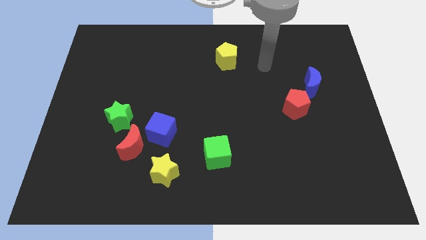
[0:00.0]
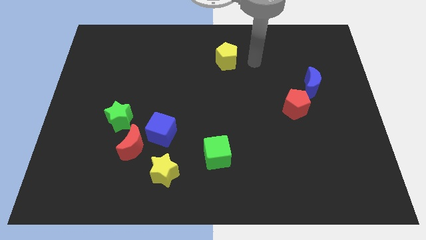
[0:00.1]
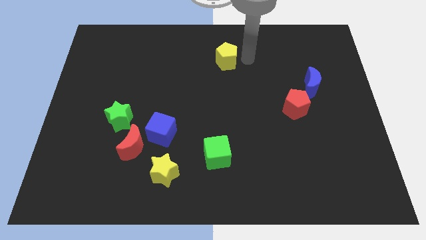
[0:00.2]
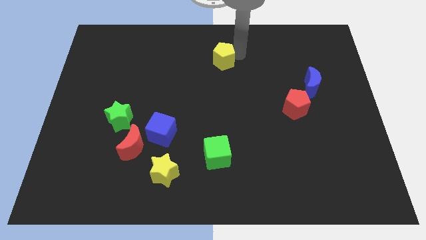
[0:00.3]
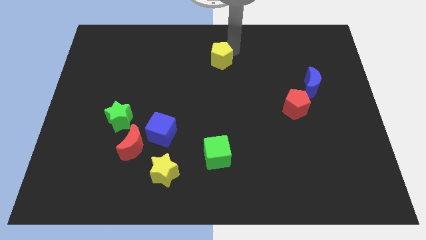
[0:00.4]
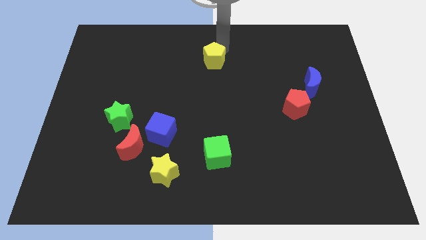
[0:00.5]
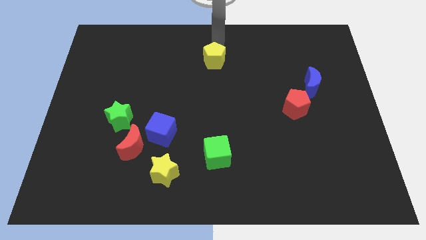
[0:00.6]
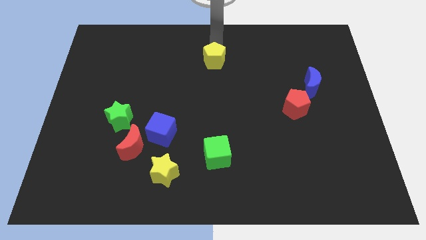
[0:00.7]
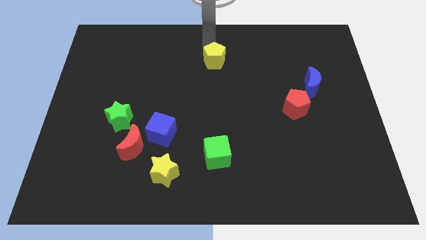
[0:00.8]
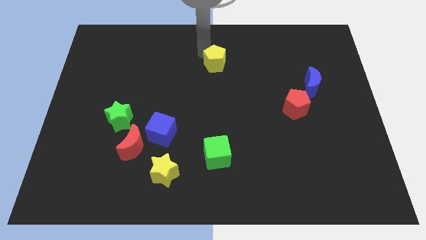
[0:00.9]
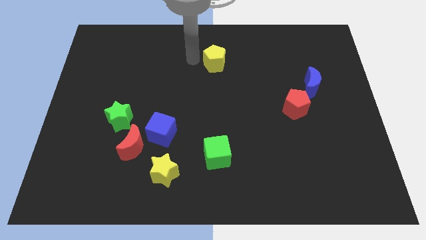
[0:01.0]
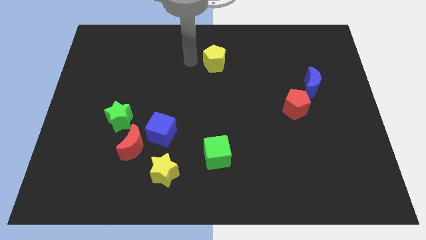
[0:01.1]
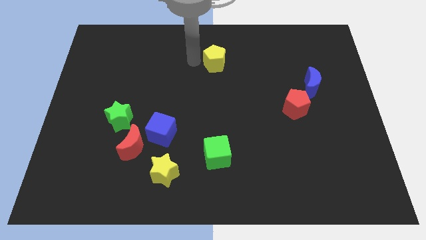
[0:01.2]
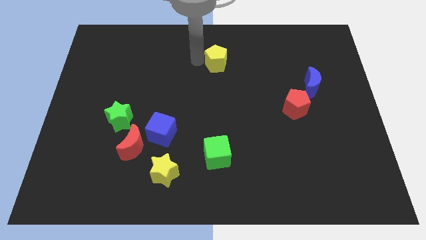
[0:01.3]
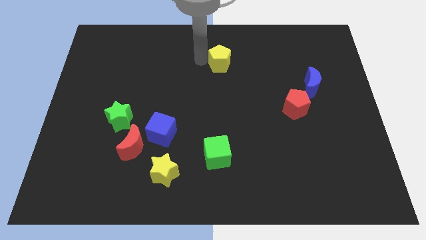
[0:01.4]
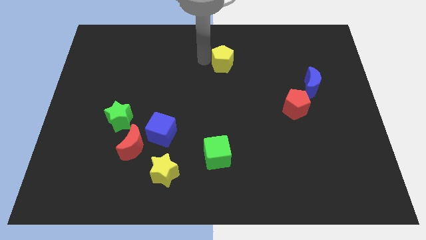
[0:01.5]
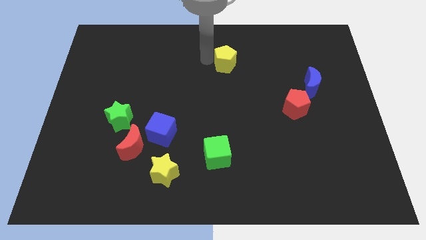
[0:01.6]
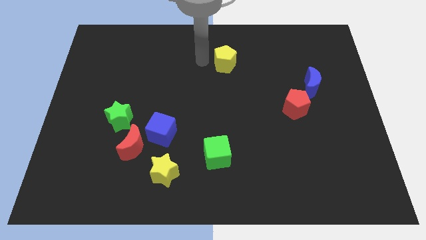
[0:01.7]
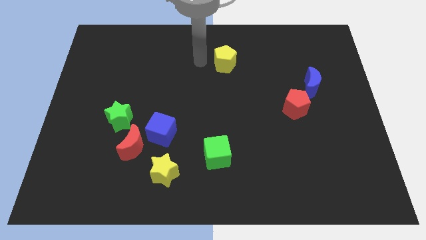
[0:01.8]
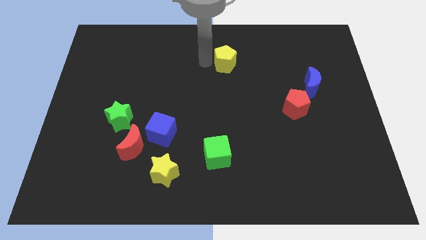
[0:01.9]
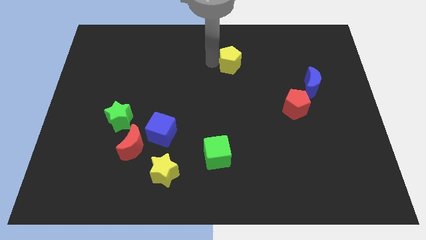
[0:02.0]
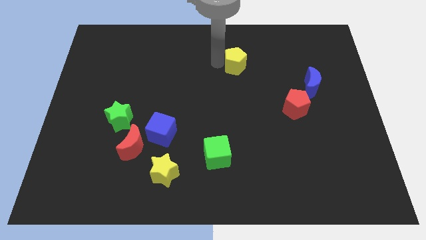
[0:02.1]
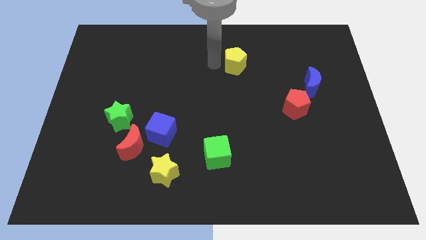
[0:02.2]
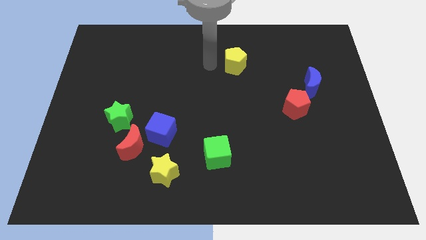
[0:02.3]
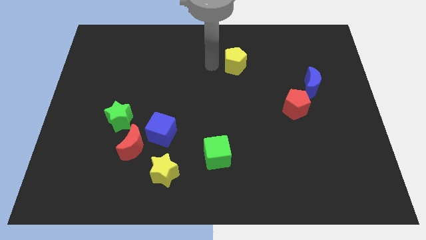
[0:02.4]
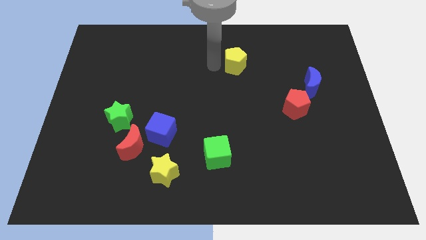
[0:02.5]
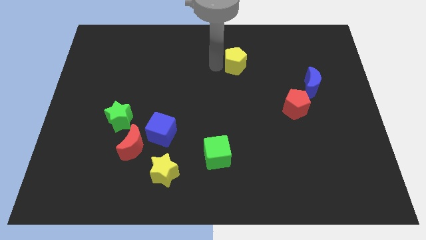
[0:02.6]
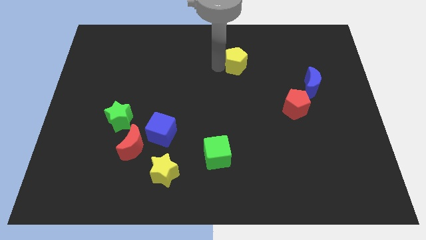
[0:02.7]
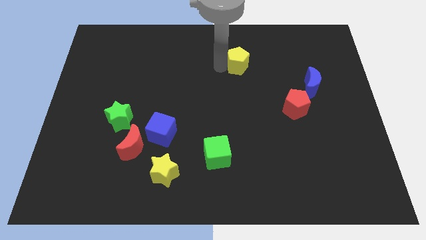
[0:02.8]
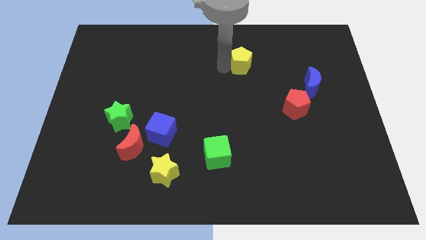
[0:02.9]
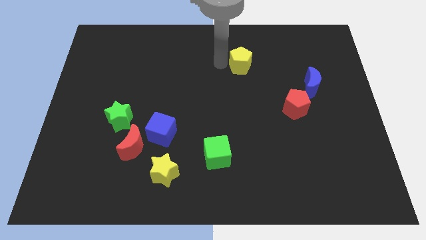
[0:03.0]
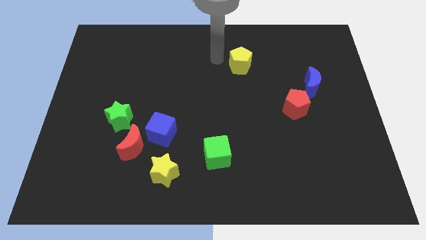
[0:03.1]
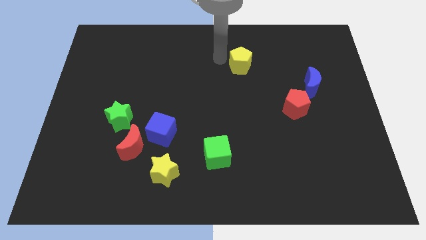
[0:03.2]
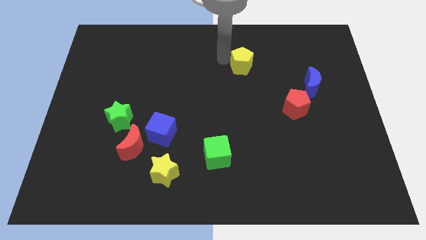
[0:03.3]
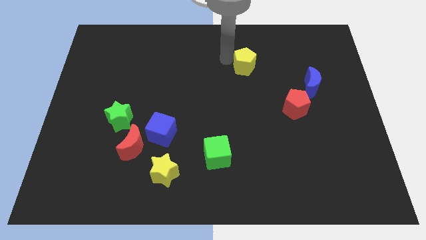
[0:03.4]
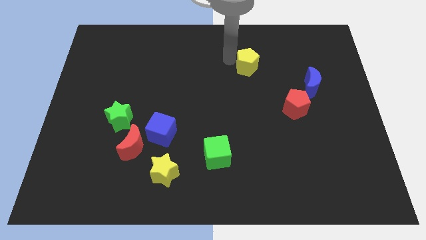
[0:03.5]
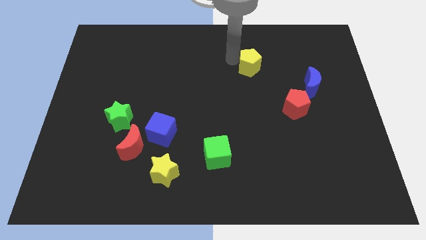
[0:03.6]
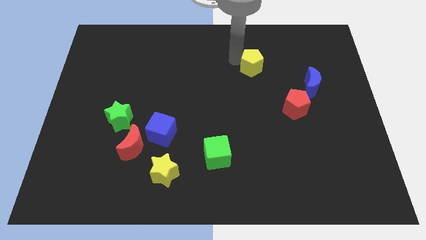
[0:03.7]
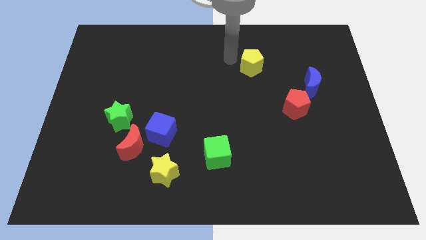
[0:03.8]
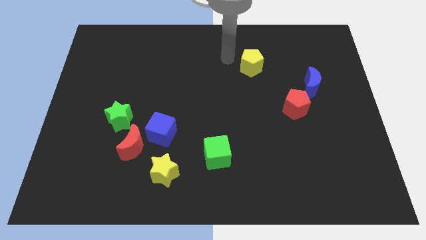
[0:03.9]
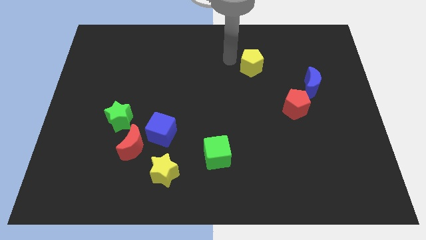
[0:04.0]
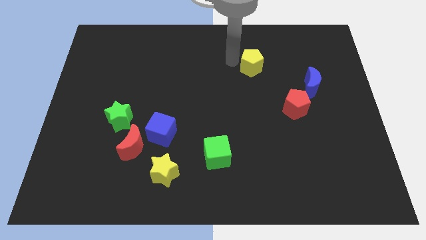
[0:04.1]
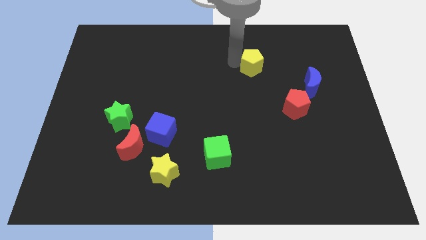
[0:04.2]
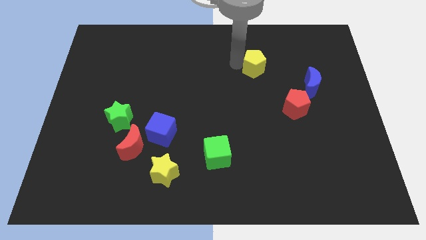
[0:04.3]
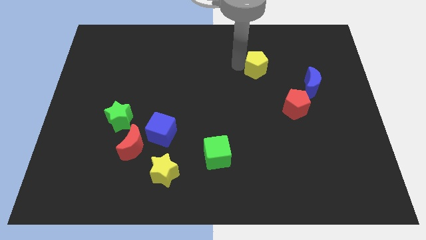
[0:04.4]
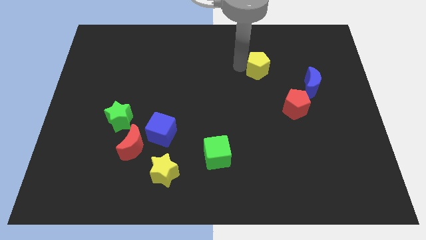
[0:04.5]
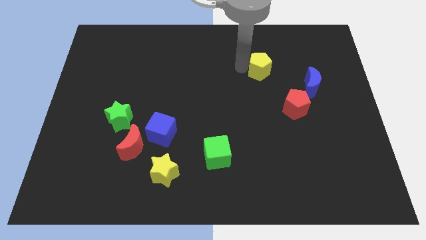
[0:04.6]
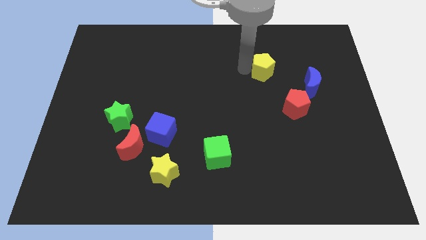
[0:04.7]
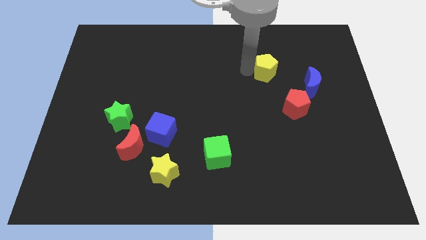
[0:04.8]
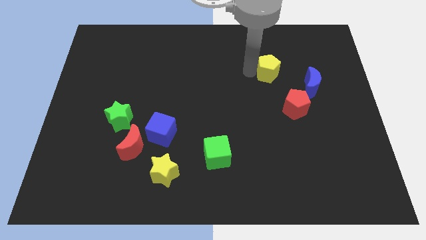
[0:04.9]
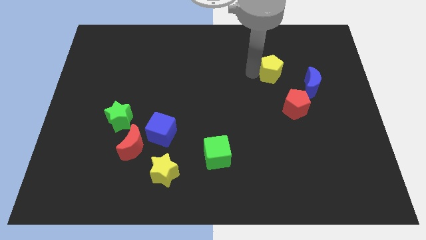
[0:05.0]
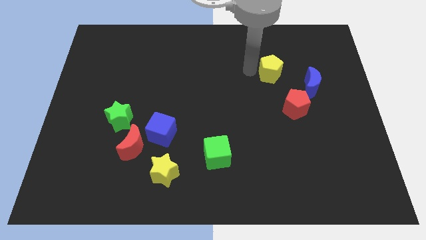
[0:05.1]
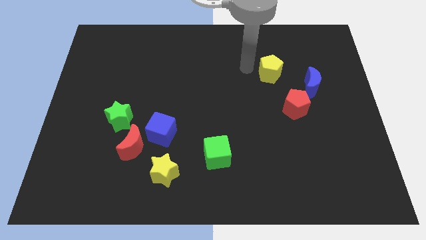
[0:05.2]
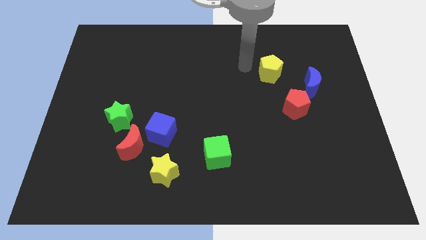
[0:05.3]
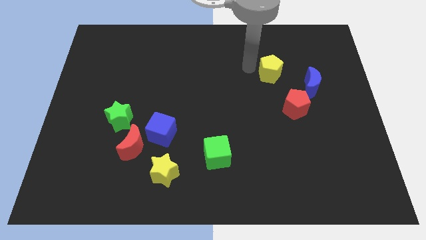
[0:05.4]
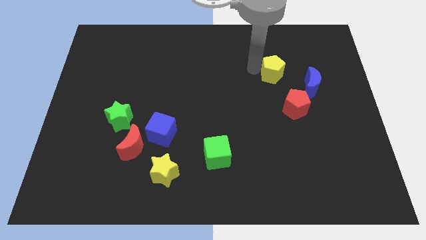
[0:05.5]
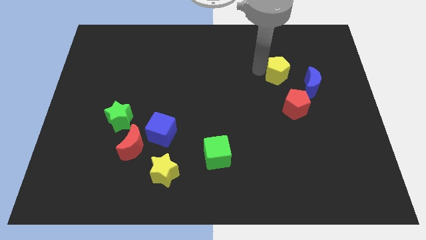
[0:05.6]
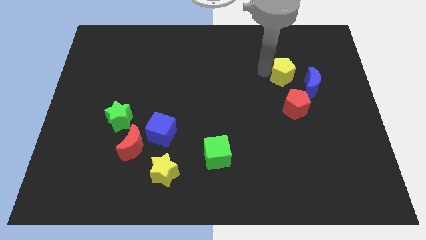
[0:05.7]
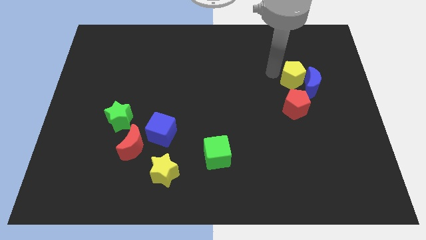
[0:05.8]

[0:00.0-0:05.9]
push the yellow pentagon close to the blue moon

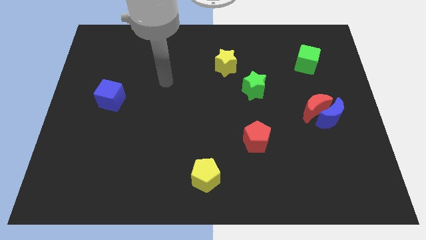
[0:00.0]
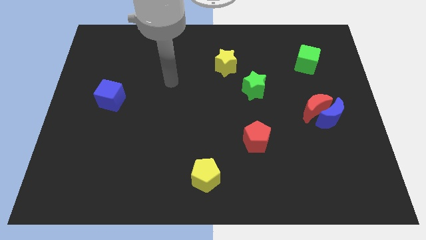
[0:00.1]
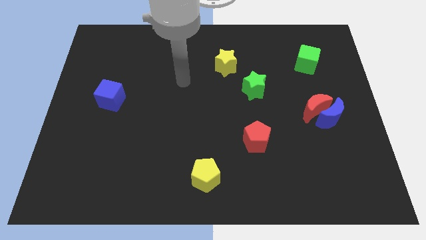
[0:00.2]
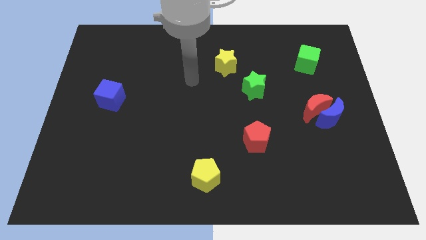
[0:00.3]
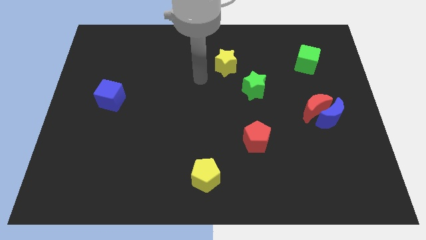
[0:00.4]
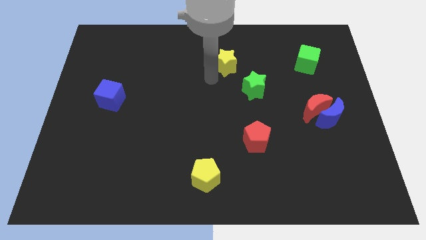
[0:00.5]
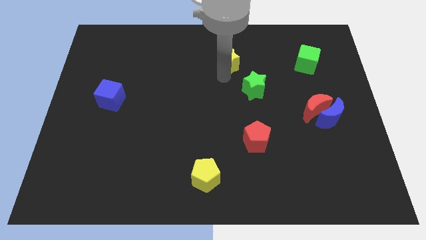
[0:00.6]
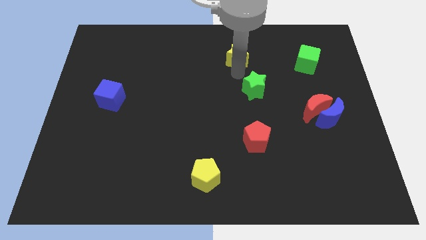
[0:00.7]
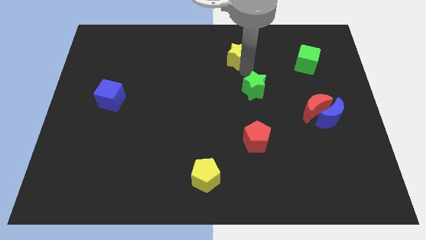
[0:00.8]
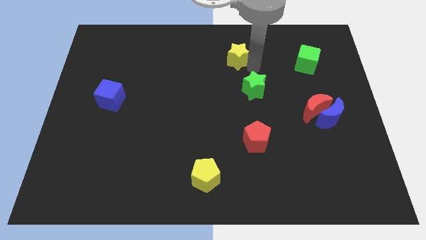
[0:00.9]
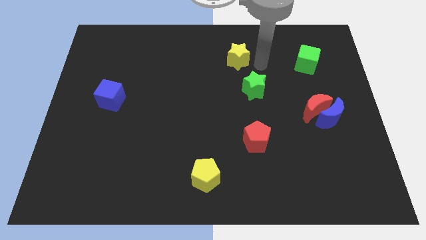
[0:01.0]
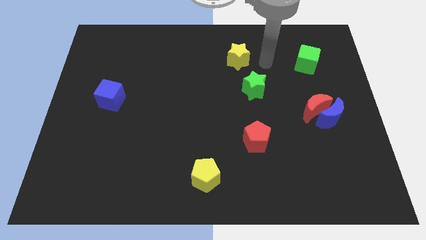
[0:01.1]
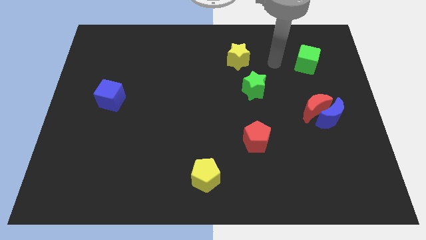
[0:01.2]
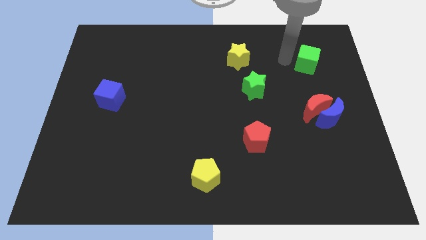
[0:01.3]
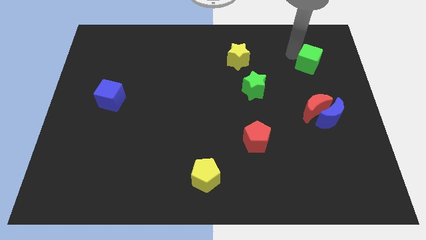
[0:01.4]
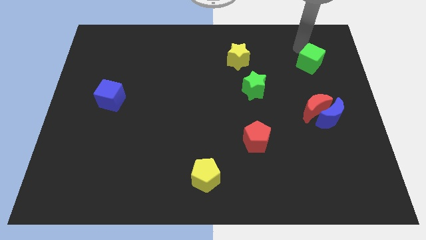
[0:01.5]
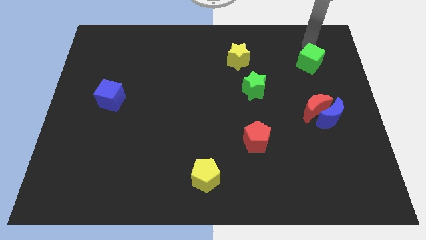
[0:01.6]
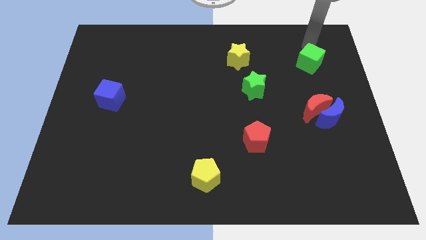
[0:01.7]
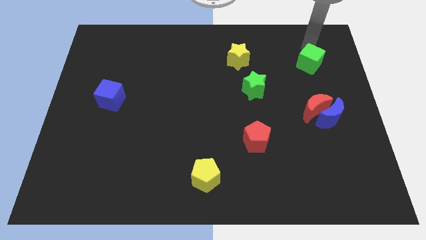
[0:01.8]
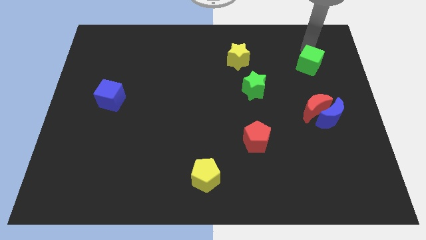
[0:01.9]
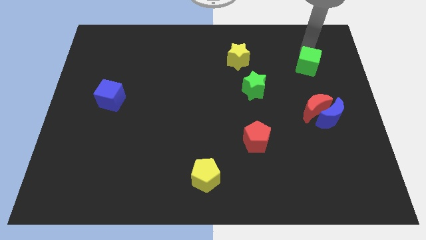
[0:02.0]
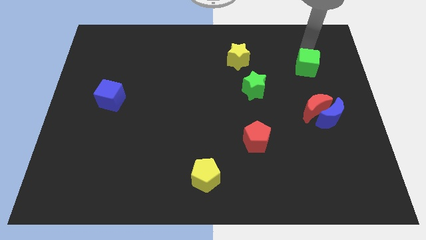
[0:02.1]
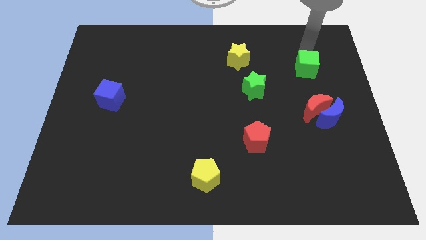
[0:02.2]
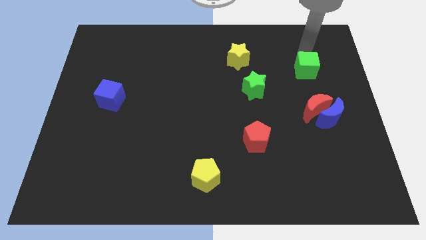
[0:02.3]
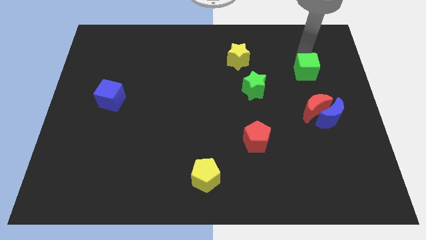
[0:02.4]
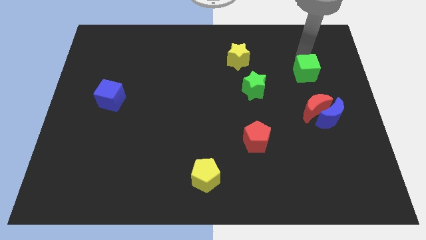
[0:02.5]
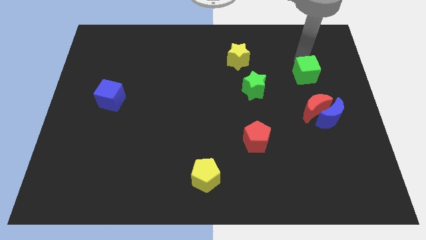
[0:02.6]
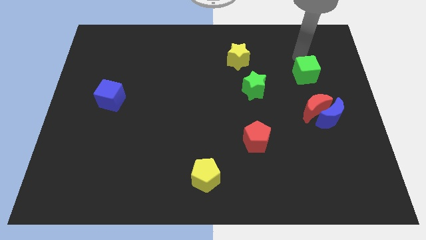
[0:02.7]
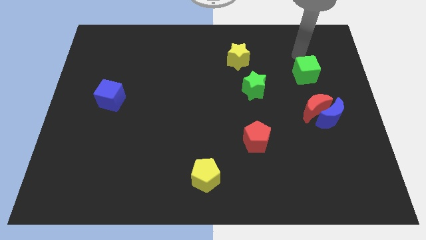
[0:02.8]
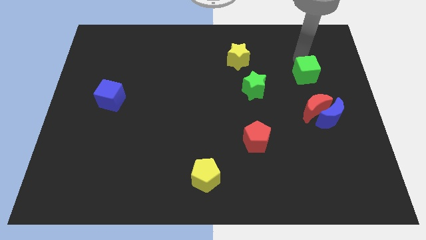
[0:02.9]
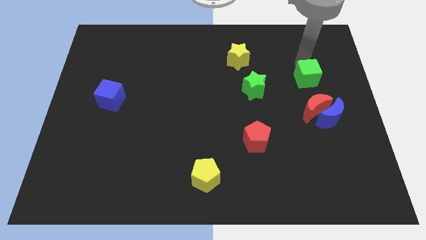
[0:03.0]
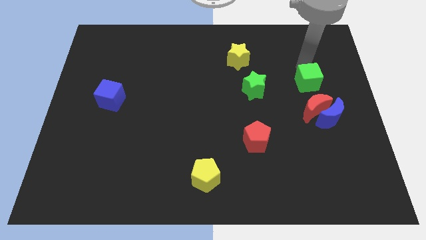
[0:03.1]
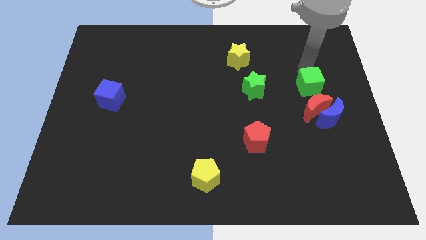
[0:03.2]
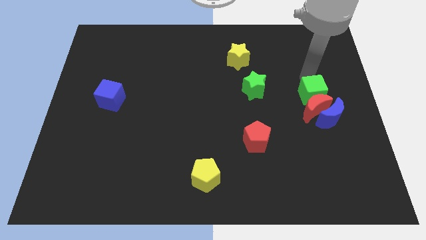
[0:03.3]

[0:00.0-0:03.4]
push the green cube towards the red moon
